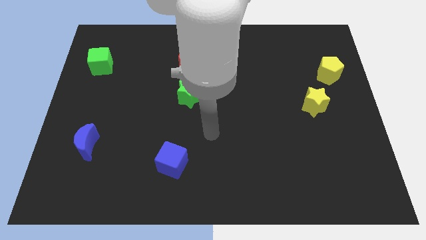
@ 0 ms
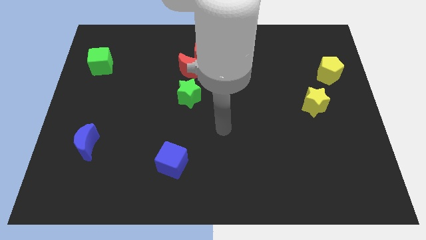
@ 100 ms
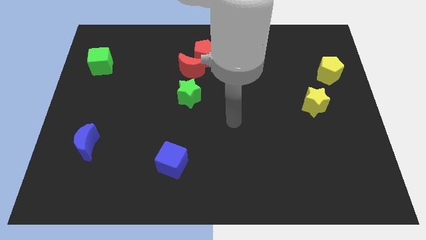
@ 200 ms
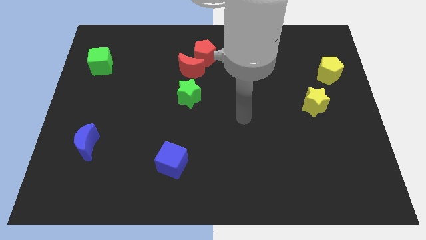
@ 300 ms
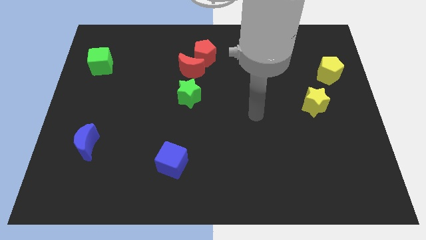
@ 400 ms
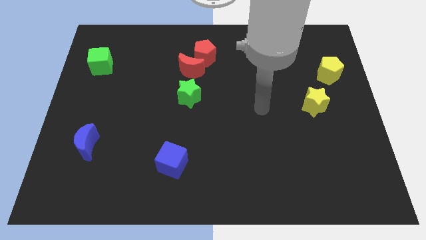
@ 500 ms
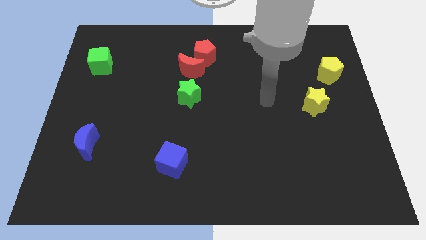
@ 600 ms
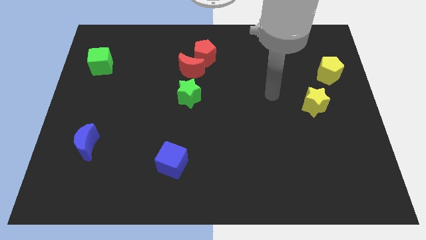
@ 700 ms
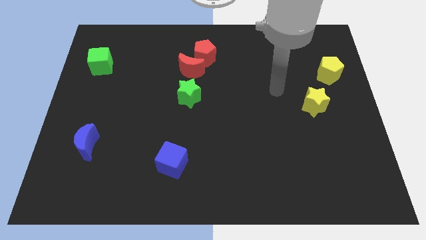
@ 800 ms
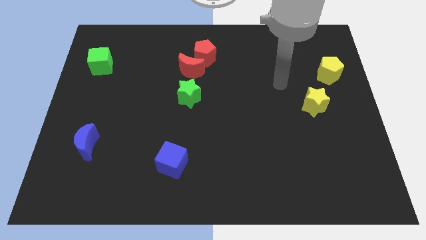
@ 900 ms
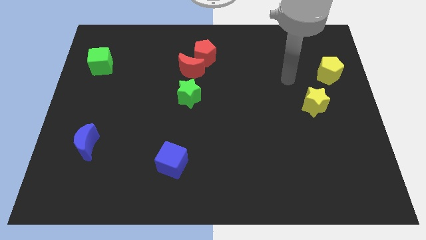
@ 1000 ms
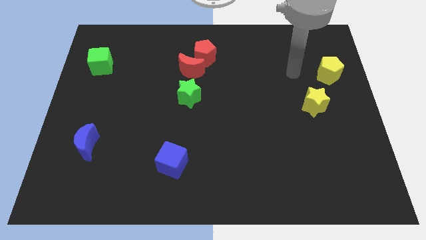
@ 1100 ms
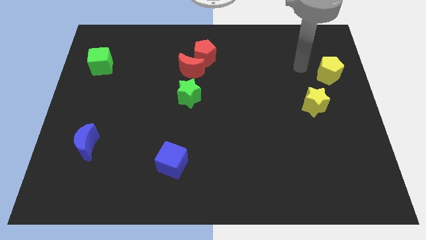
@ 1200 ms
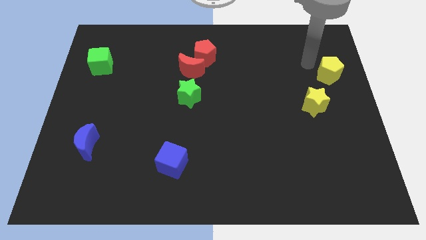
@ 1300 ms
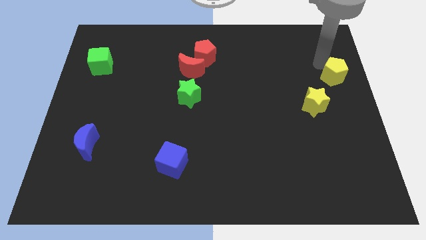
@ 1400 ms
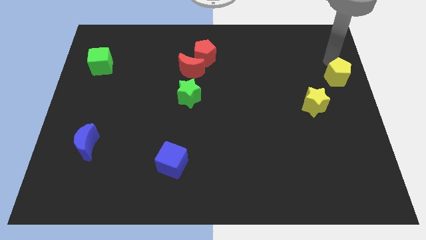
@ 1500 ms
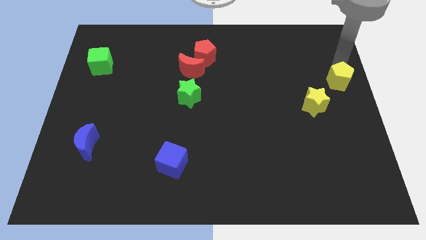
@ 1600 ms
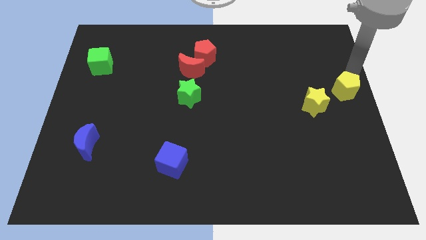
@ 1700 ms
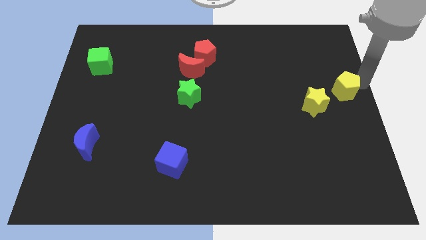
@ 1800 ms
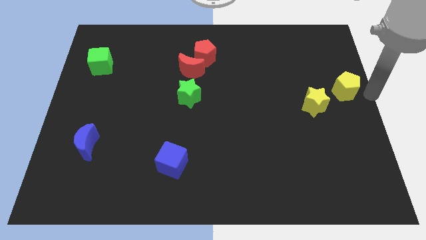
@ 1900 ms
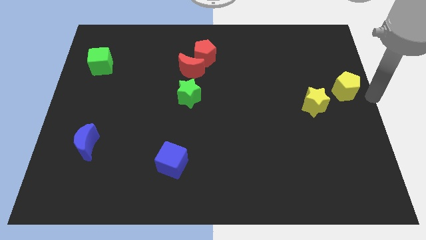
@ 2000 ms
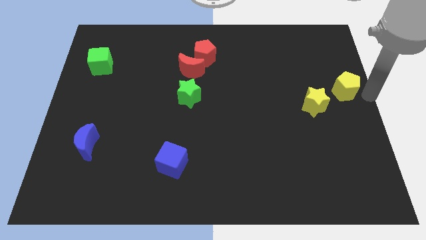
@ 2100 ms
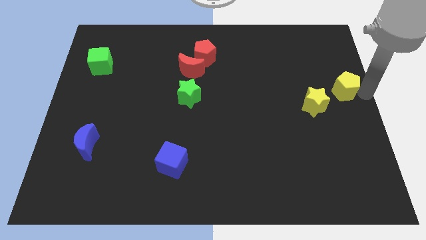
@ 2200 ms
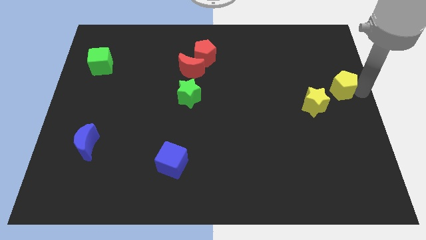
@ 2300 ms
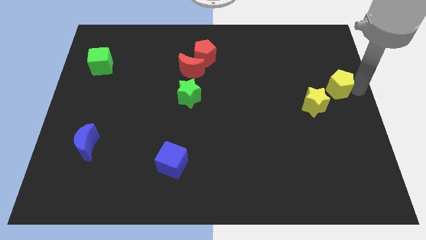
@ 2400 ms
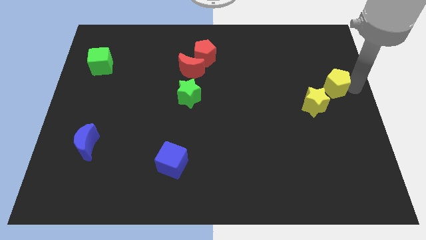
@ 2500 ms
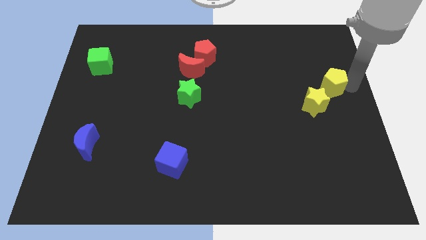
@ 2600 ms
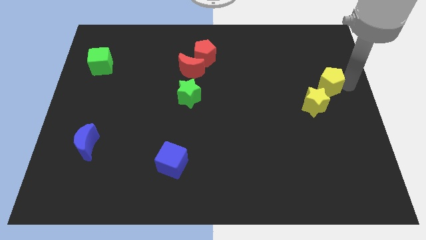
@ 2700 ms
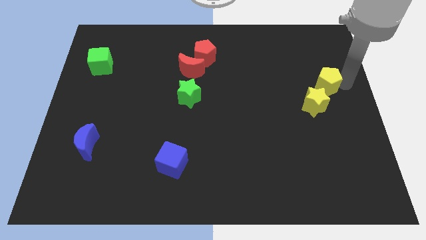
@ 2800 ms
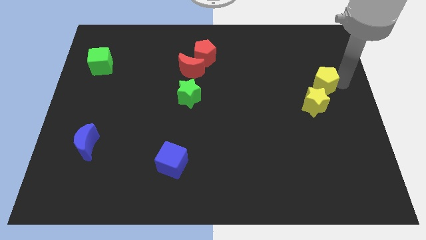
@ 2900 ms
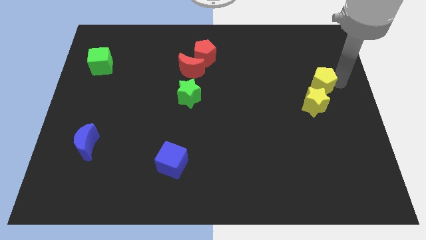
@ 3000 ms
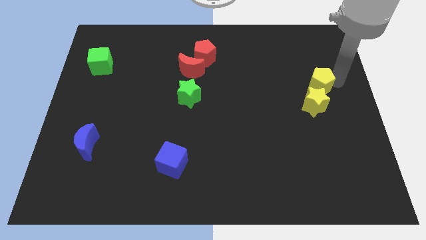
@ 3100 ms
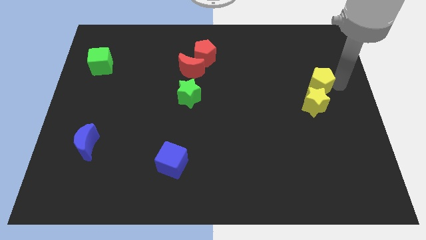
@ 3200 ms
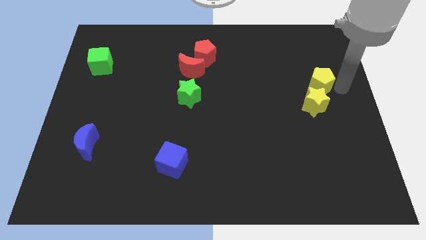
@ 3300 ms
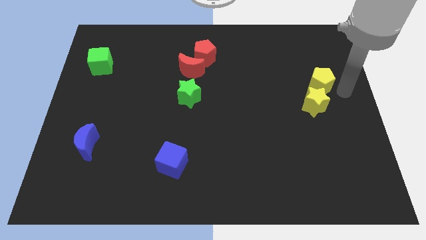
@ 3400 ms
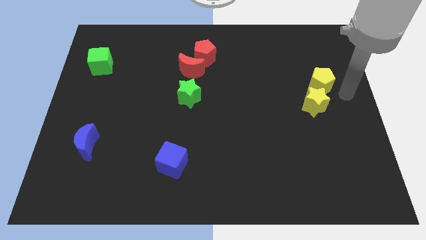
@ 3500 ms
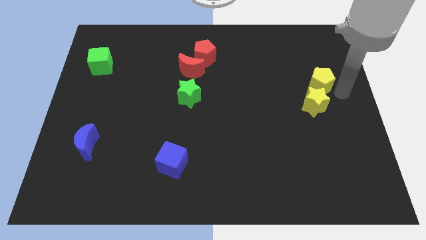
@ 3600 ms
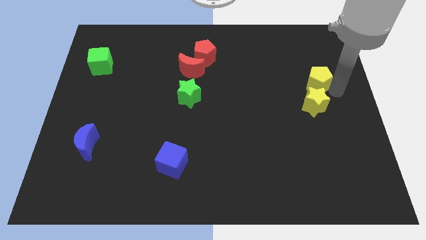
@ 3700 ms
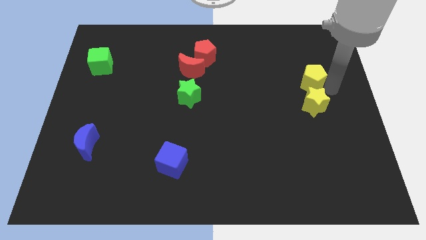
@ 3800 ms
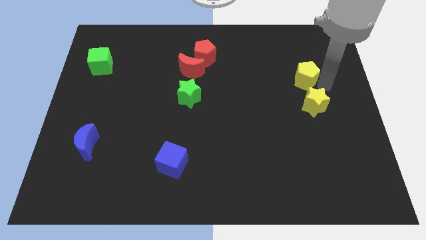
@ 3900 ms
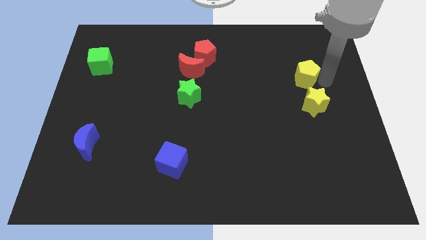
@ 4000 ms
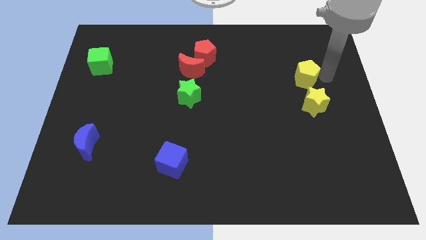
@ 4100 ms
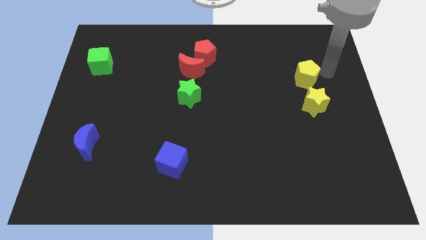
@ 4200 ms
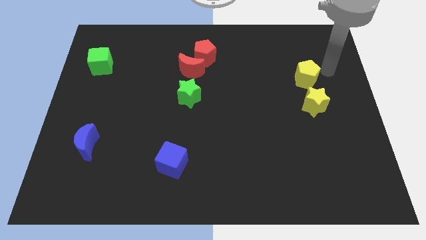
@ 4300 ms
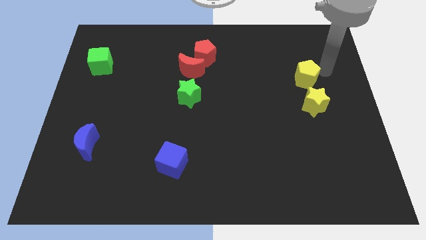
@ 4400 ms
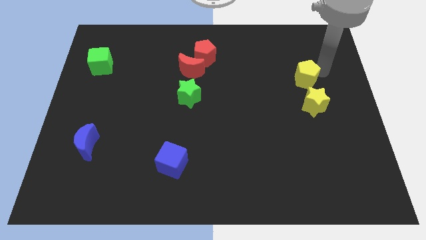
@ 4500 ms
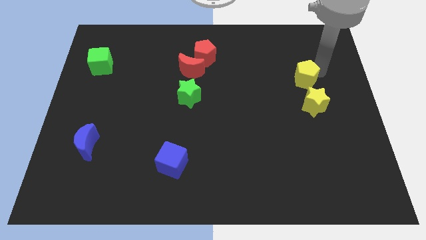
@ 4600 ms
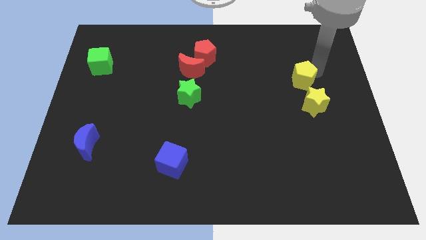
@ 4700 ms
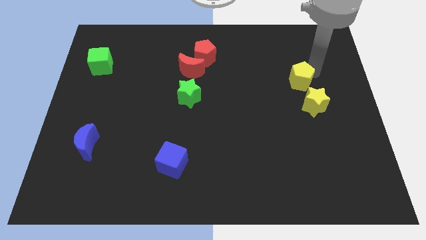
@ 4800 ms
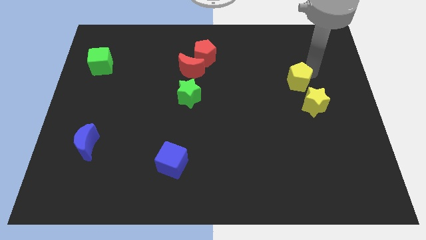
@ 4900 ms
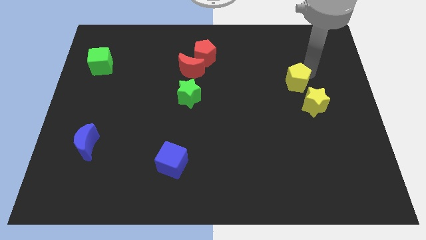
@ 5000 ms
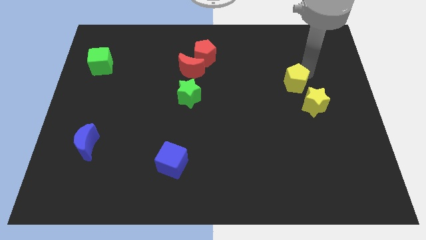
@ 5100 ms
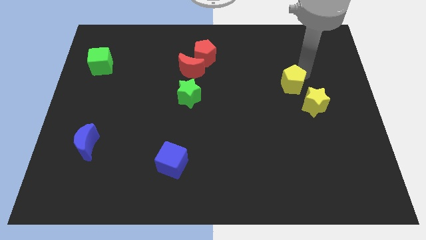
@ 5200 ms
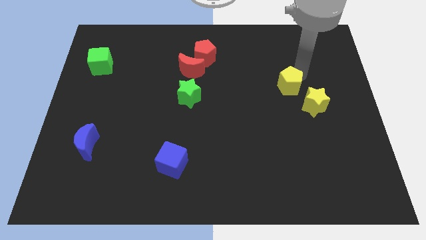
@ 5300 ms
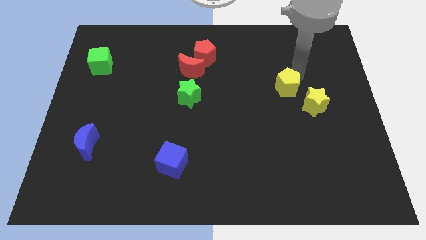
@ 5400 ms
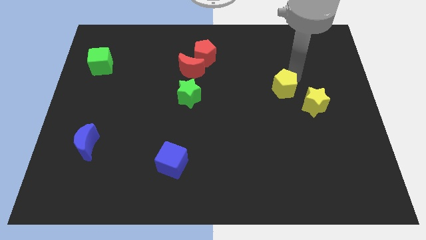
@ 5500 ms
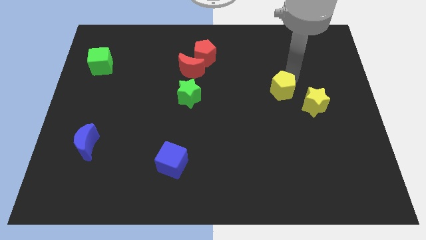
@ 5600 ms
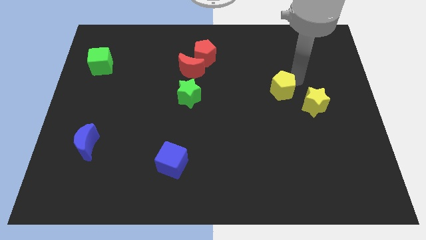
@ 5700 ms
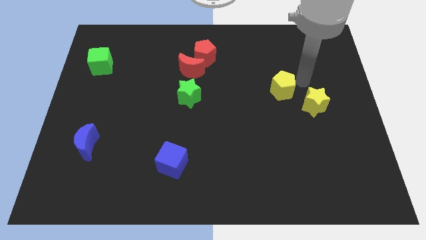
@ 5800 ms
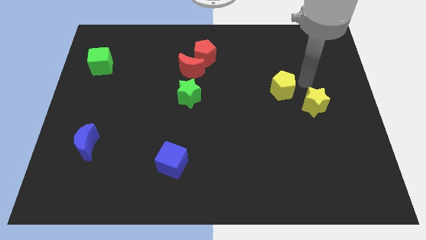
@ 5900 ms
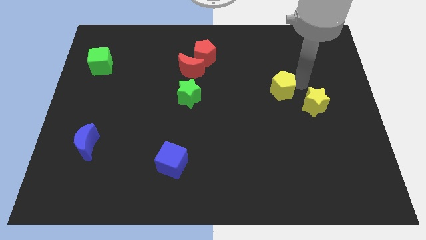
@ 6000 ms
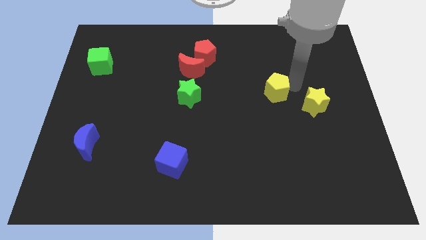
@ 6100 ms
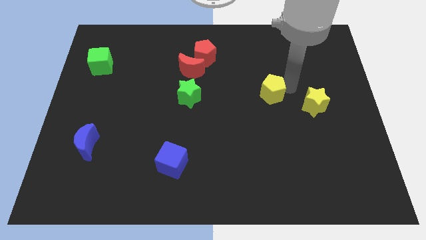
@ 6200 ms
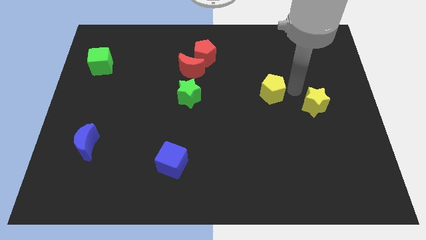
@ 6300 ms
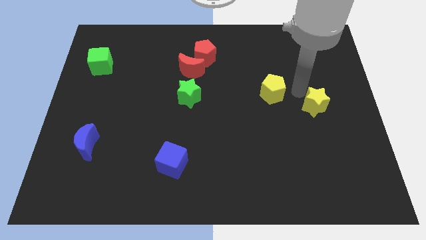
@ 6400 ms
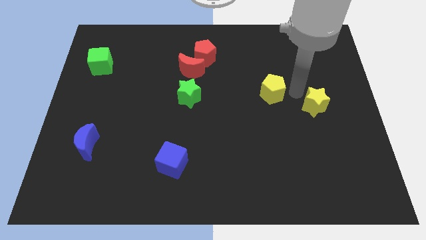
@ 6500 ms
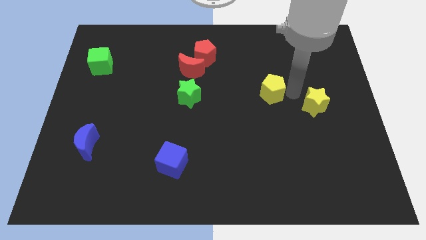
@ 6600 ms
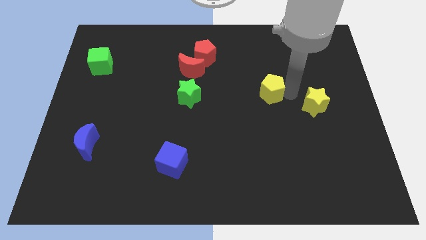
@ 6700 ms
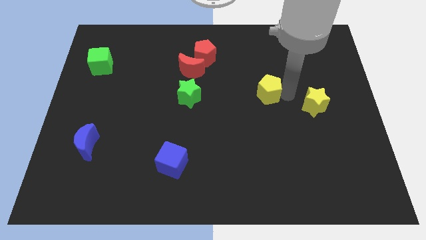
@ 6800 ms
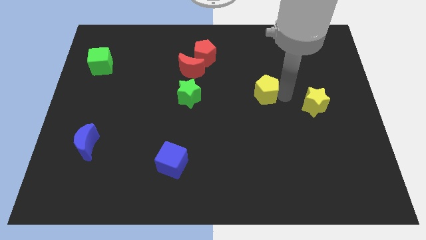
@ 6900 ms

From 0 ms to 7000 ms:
push the yellow pentagon to the middle of the board
